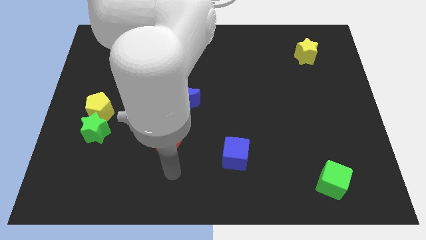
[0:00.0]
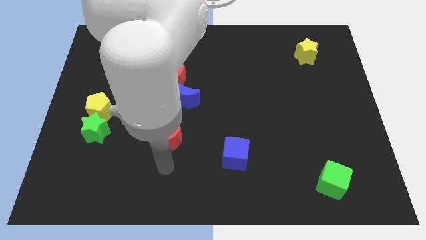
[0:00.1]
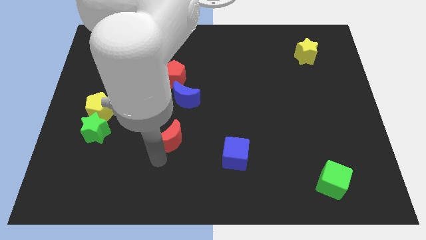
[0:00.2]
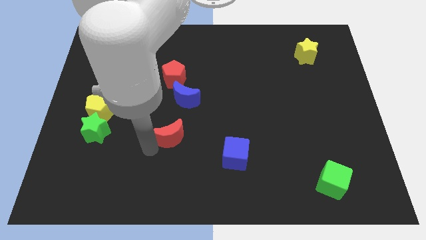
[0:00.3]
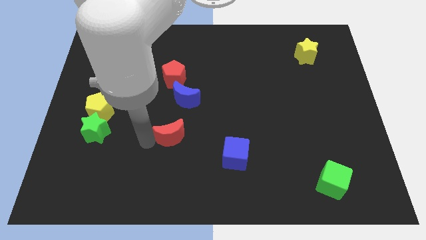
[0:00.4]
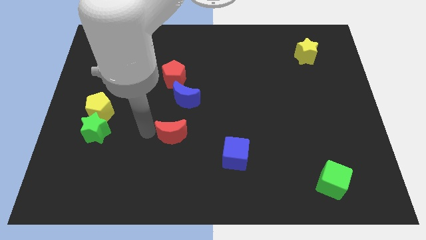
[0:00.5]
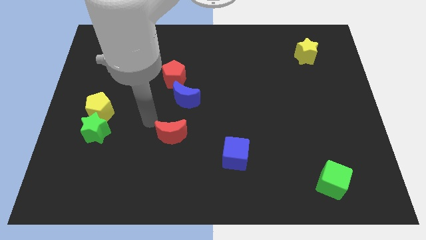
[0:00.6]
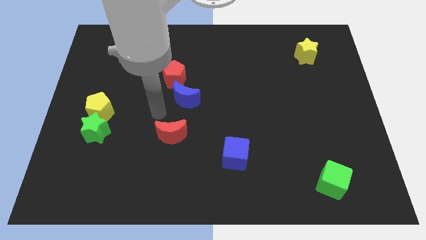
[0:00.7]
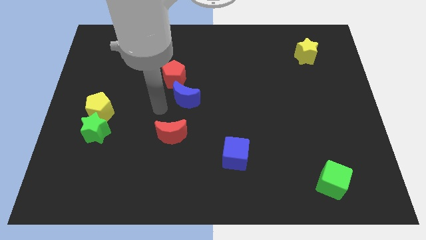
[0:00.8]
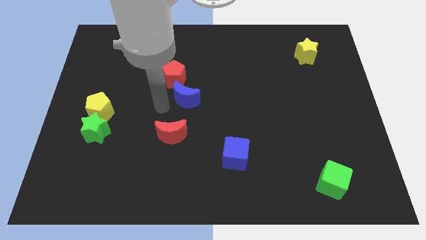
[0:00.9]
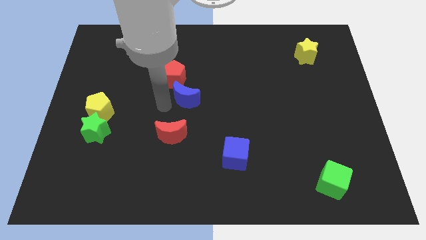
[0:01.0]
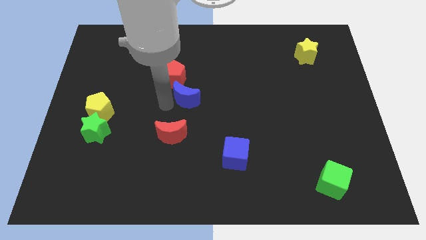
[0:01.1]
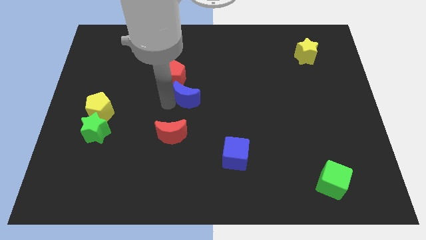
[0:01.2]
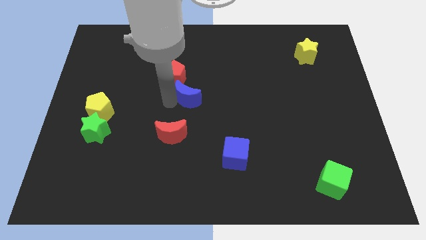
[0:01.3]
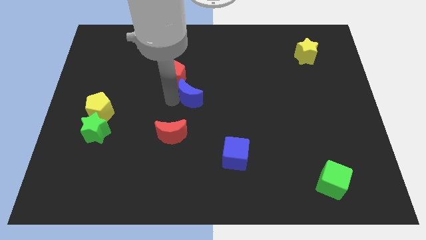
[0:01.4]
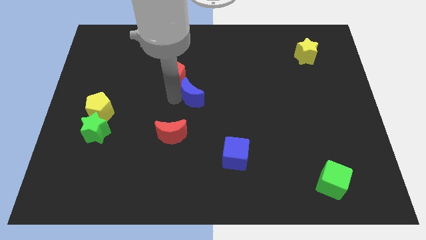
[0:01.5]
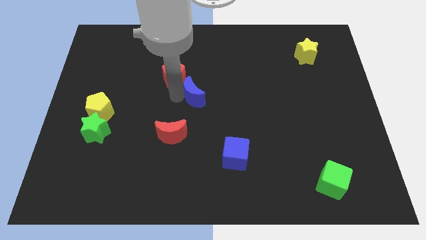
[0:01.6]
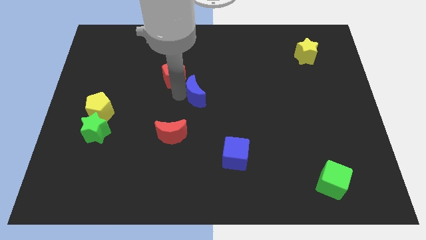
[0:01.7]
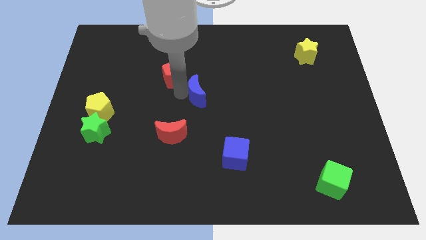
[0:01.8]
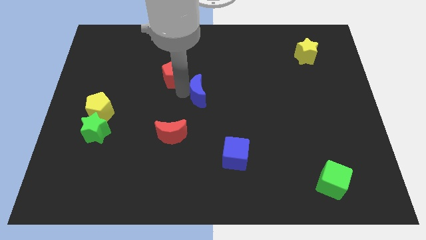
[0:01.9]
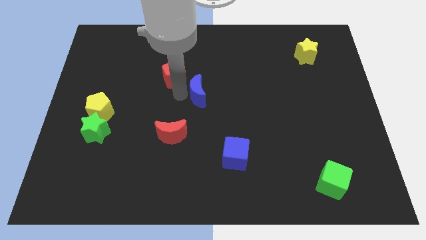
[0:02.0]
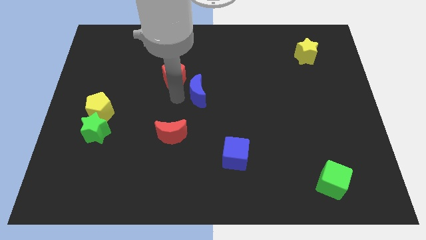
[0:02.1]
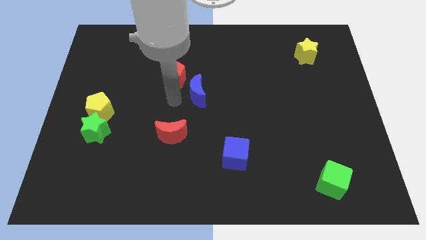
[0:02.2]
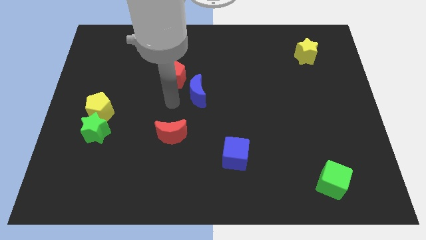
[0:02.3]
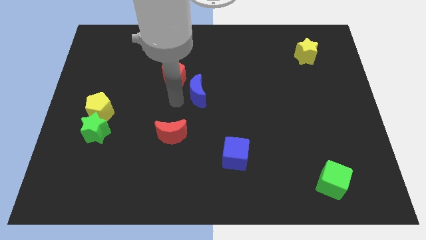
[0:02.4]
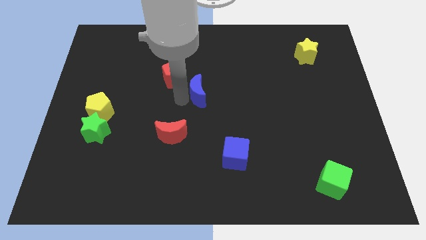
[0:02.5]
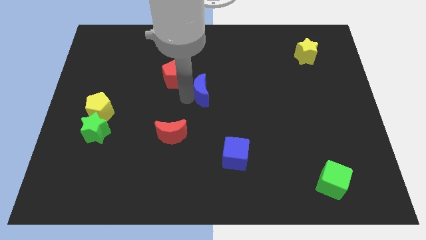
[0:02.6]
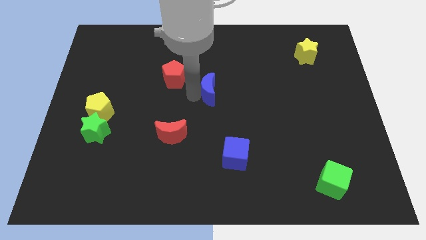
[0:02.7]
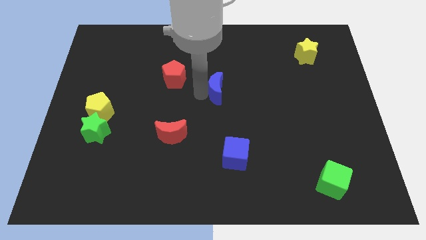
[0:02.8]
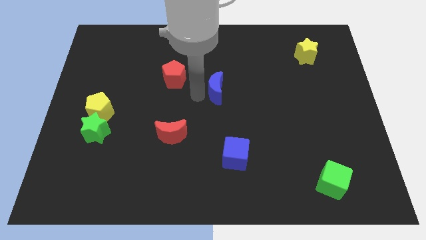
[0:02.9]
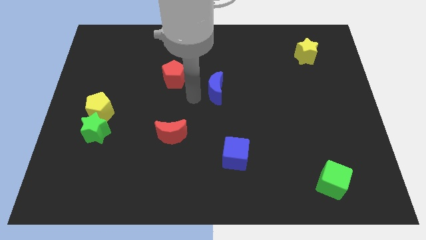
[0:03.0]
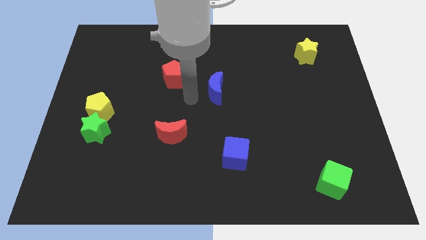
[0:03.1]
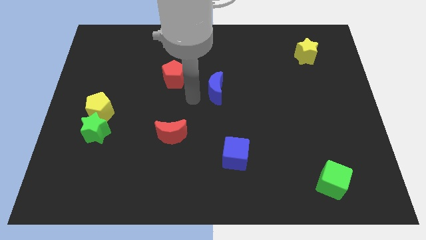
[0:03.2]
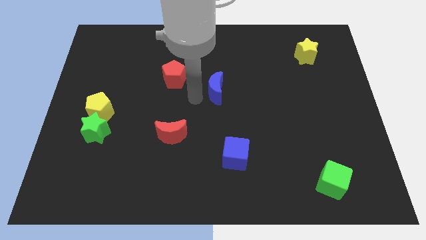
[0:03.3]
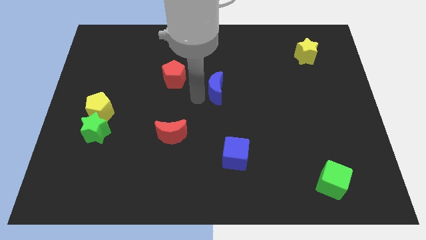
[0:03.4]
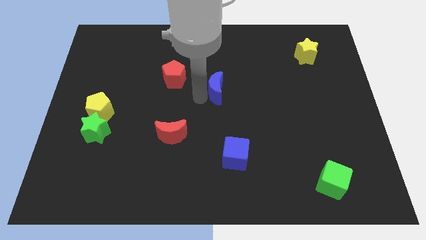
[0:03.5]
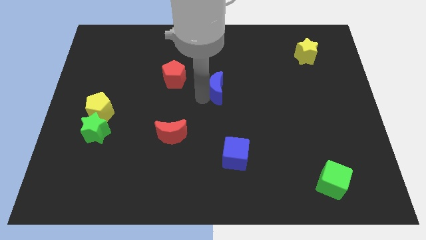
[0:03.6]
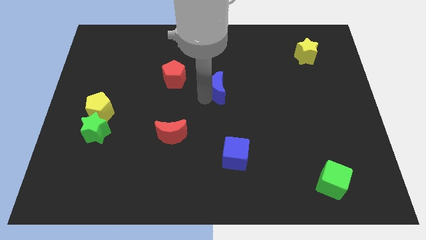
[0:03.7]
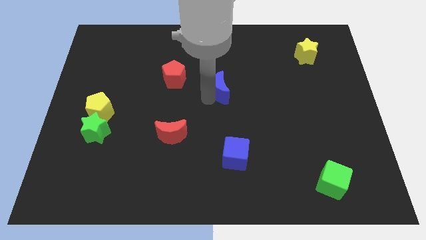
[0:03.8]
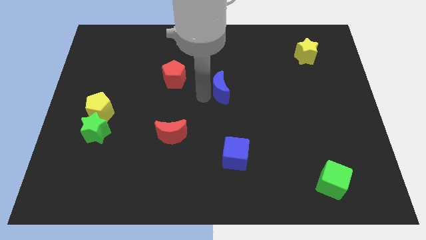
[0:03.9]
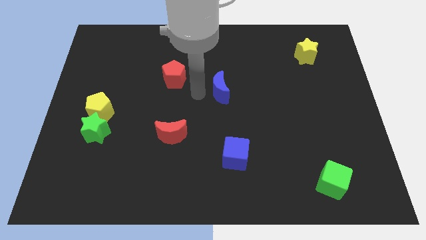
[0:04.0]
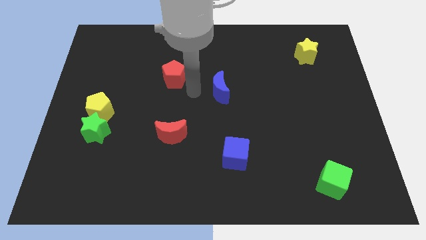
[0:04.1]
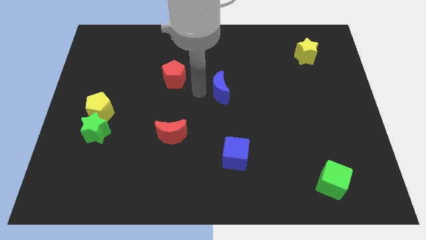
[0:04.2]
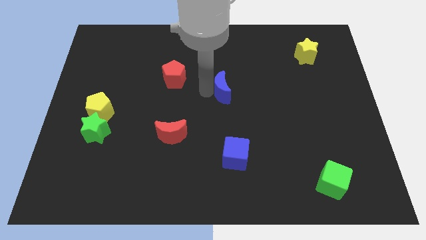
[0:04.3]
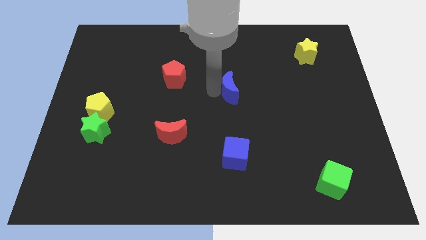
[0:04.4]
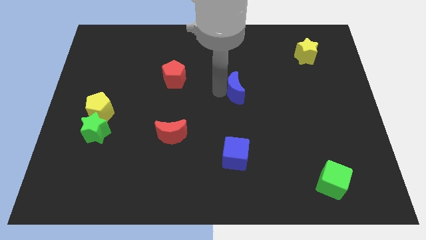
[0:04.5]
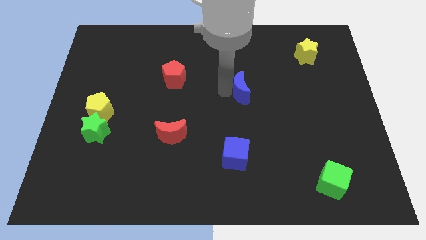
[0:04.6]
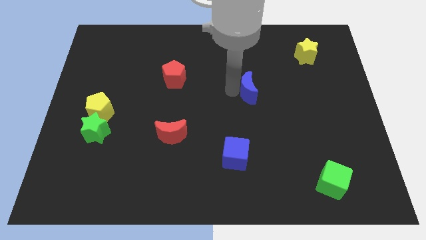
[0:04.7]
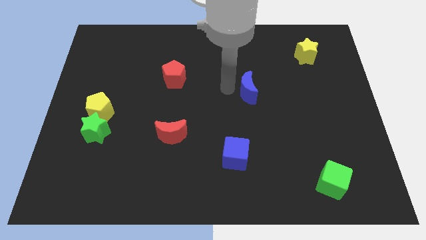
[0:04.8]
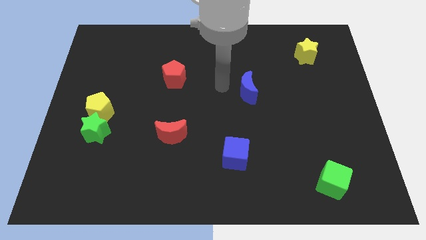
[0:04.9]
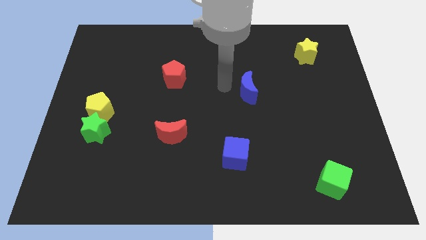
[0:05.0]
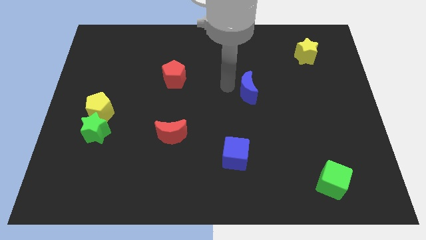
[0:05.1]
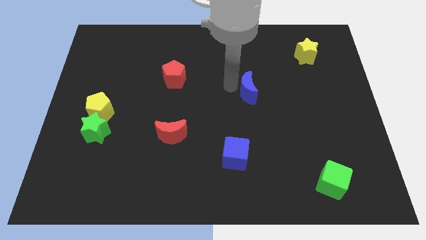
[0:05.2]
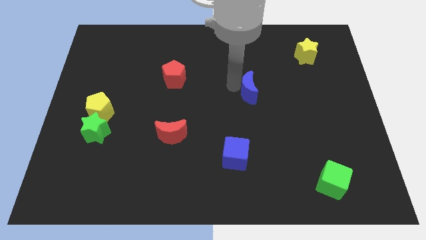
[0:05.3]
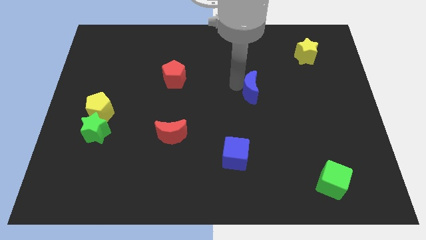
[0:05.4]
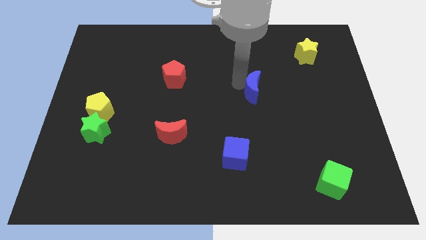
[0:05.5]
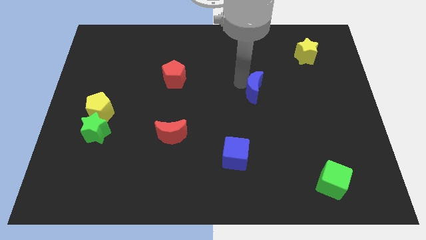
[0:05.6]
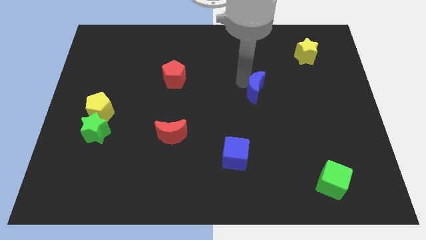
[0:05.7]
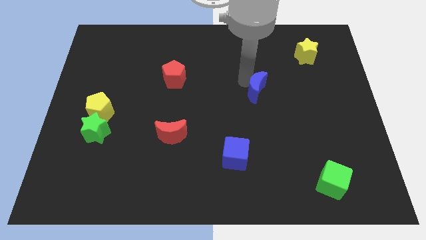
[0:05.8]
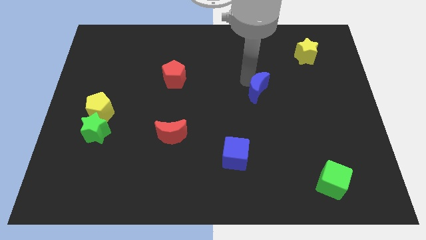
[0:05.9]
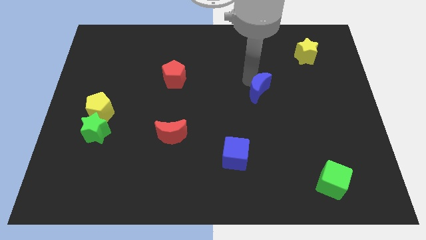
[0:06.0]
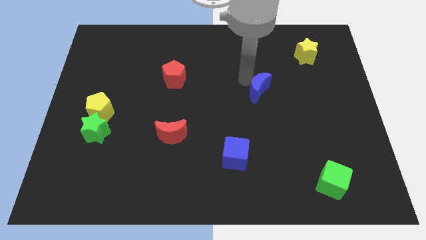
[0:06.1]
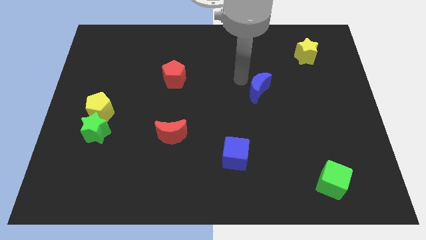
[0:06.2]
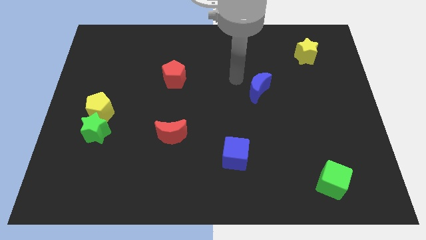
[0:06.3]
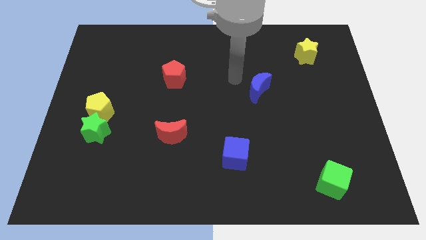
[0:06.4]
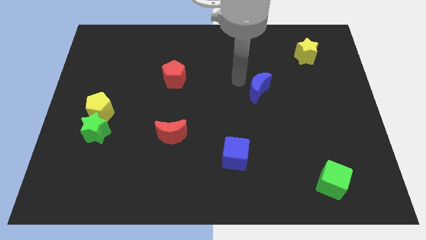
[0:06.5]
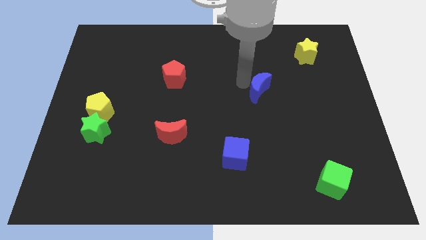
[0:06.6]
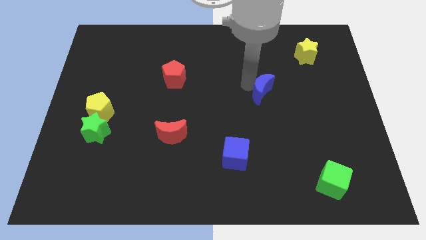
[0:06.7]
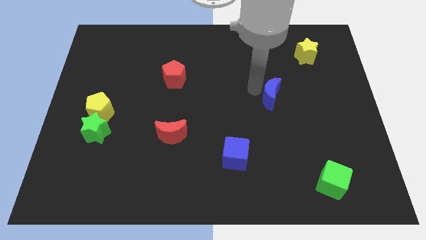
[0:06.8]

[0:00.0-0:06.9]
move the blue moon right

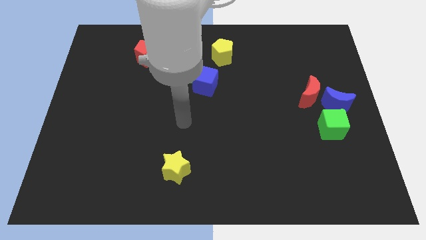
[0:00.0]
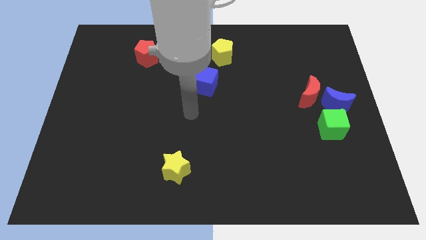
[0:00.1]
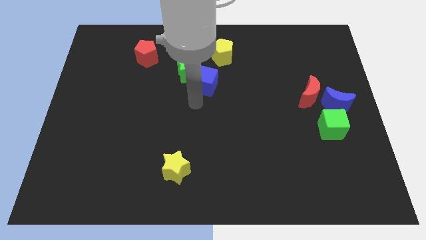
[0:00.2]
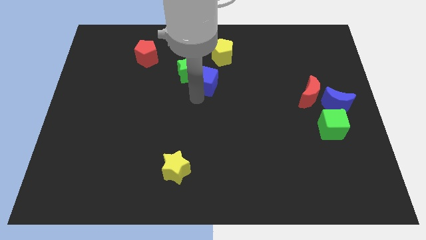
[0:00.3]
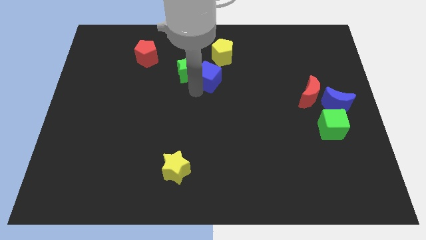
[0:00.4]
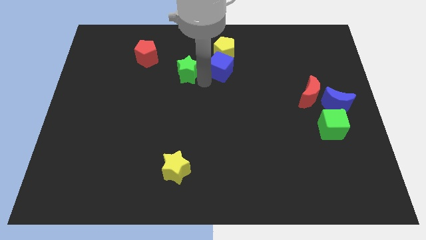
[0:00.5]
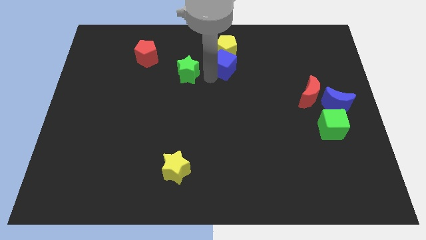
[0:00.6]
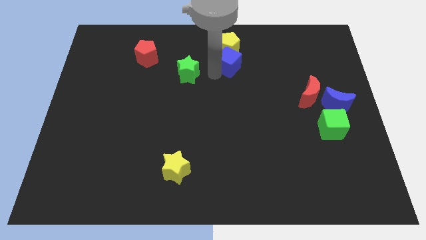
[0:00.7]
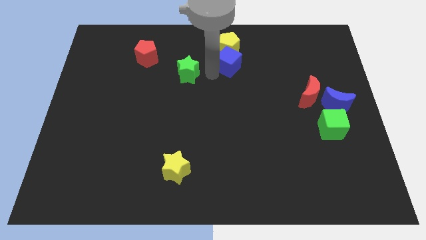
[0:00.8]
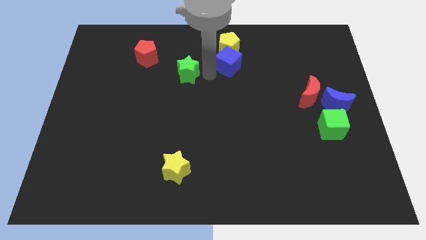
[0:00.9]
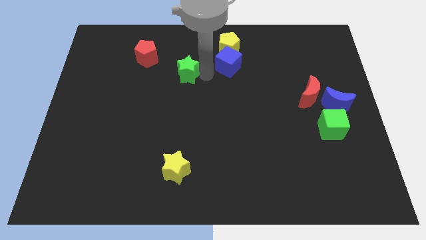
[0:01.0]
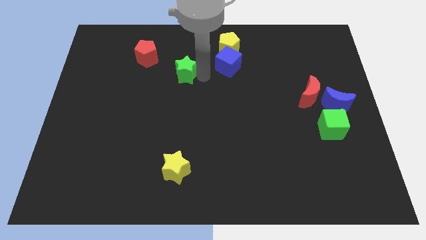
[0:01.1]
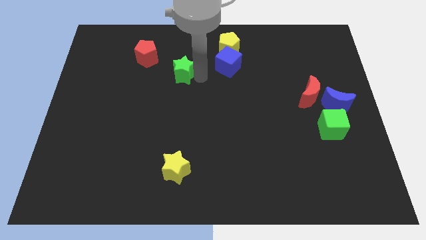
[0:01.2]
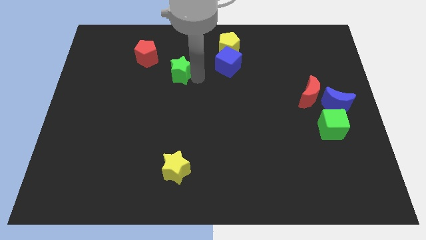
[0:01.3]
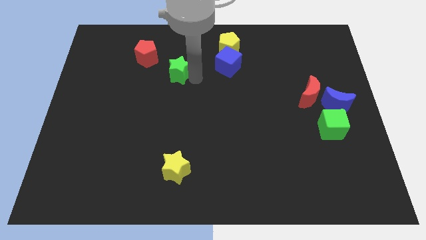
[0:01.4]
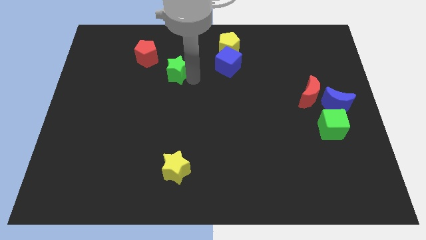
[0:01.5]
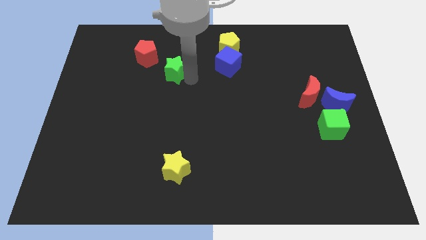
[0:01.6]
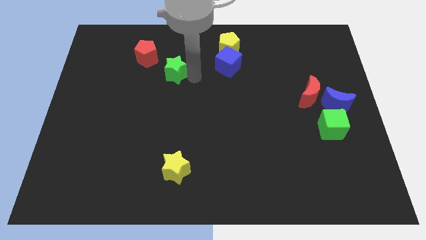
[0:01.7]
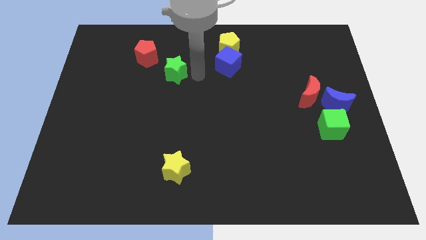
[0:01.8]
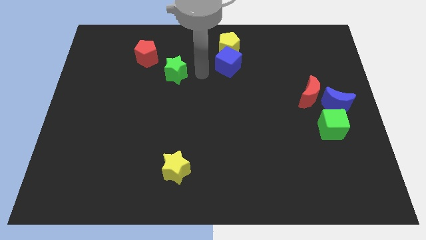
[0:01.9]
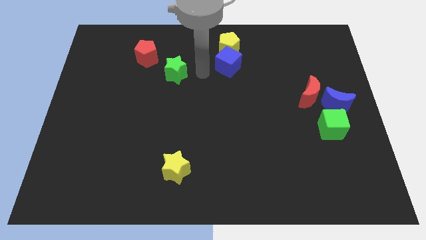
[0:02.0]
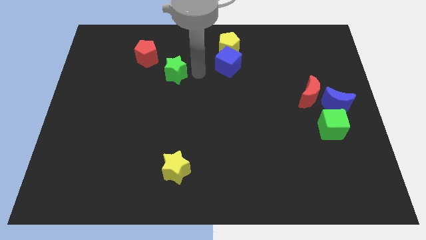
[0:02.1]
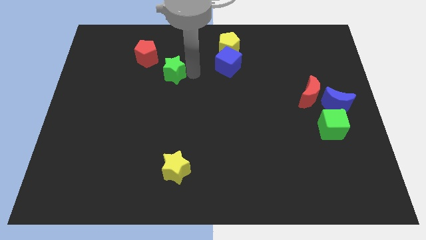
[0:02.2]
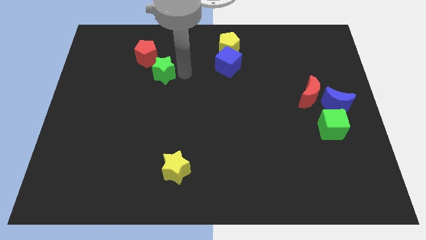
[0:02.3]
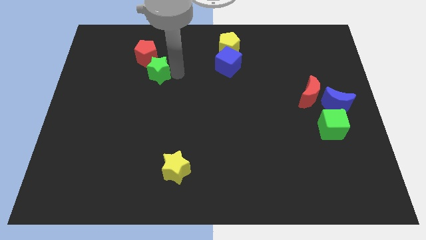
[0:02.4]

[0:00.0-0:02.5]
move the green star slightly left
